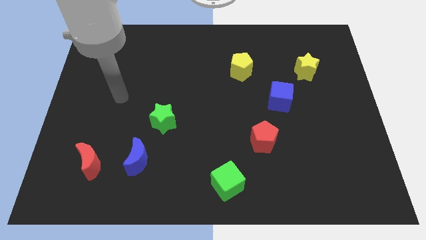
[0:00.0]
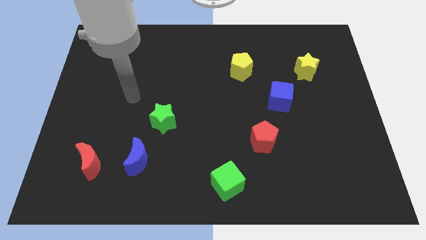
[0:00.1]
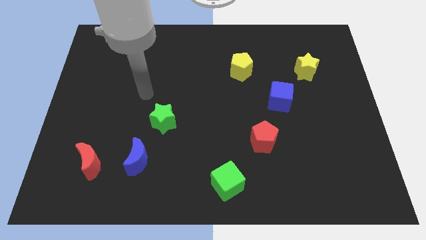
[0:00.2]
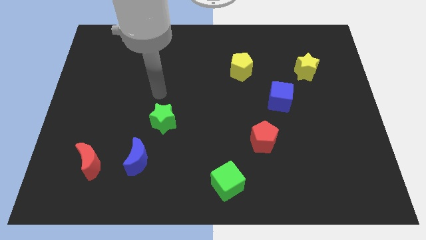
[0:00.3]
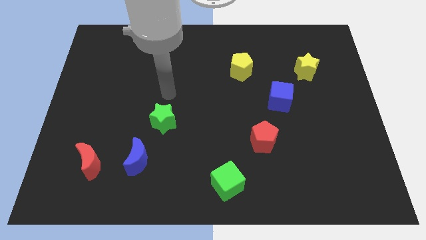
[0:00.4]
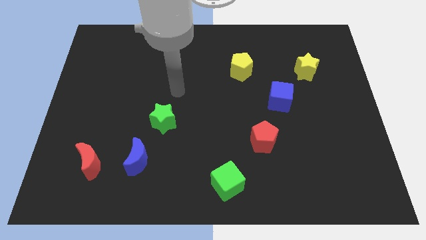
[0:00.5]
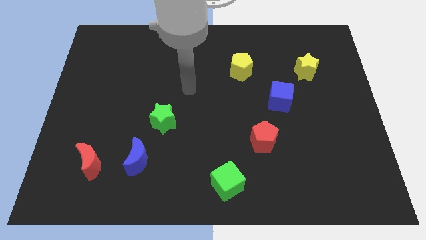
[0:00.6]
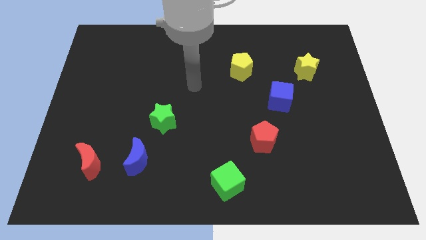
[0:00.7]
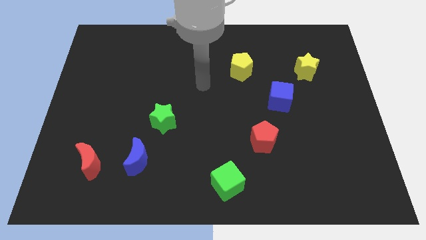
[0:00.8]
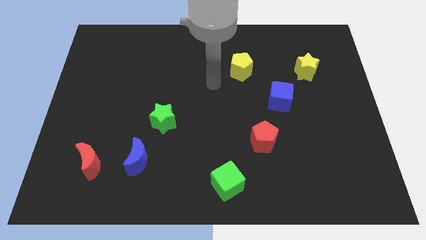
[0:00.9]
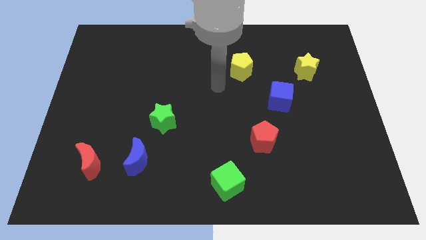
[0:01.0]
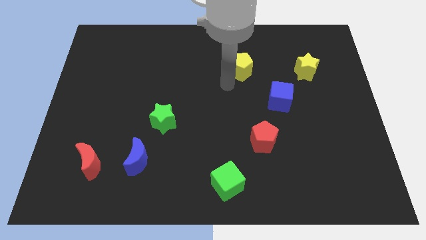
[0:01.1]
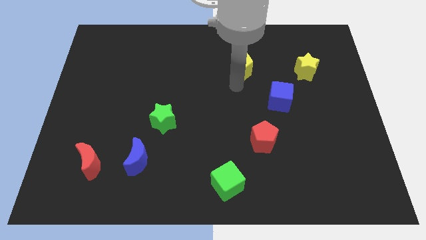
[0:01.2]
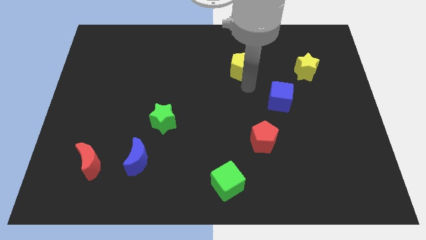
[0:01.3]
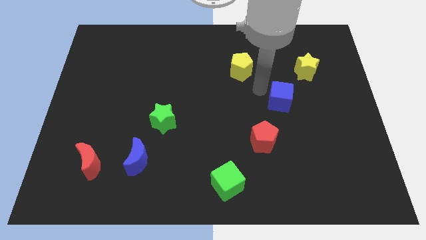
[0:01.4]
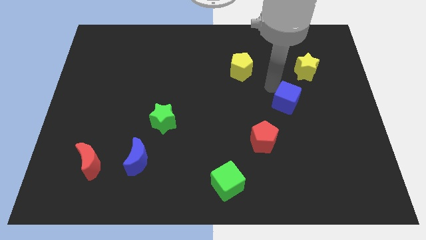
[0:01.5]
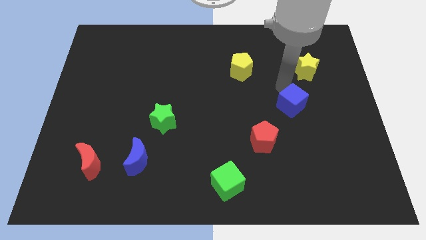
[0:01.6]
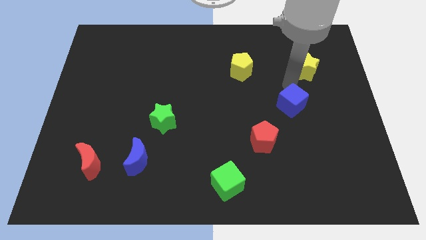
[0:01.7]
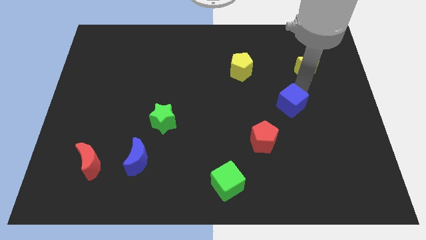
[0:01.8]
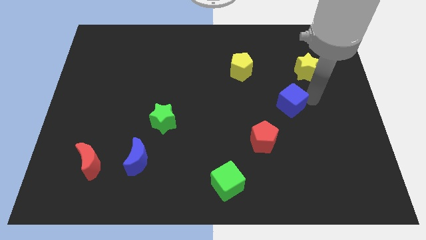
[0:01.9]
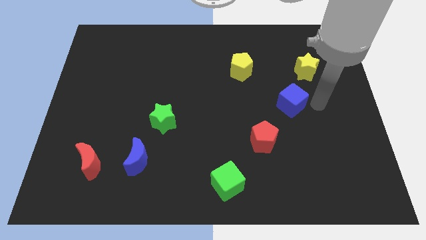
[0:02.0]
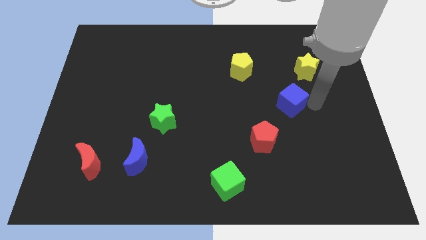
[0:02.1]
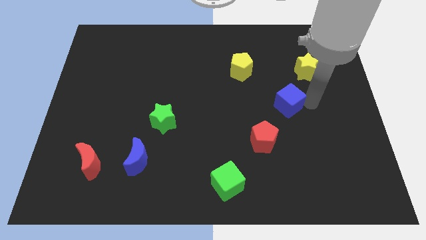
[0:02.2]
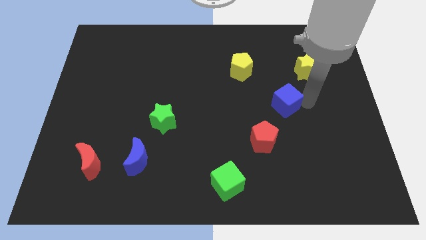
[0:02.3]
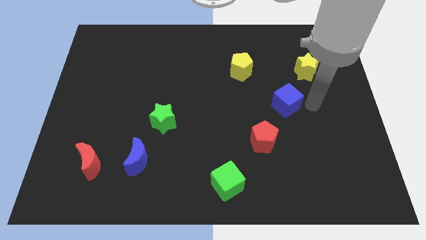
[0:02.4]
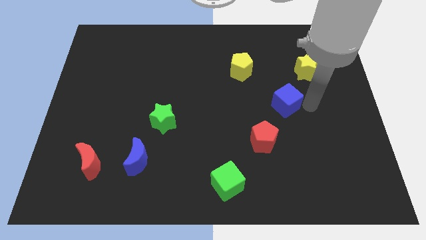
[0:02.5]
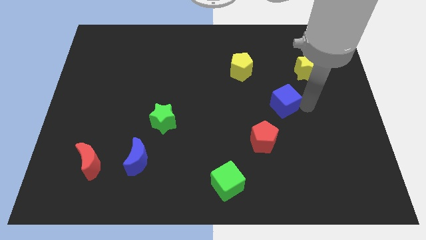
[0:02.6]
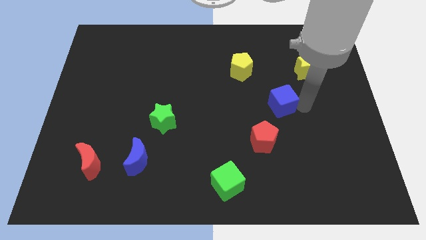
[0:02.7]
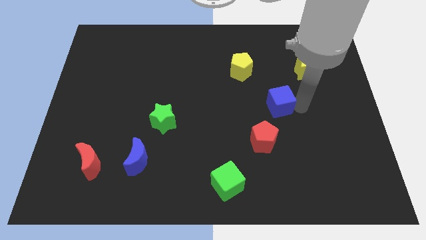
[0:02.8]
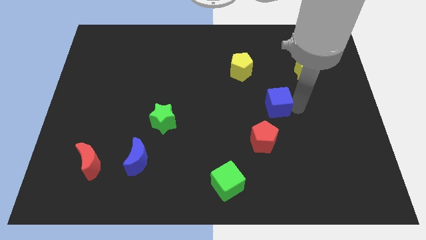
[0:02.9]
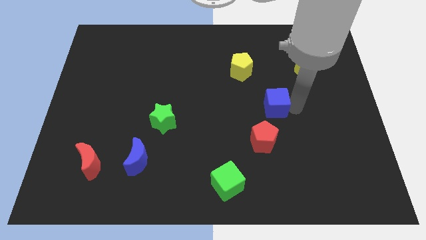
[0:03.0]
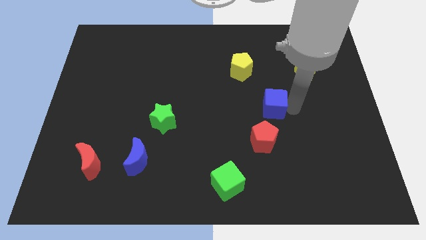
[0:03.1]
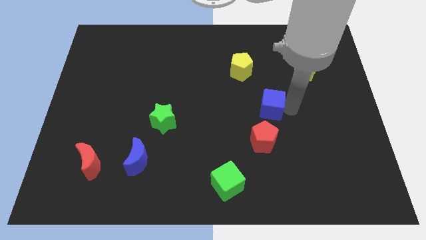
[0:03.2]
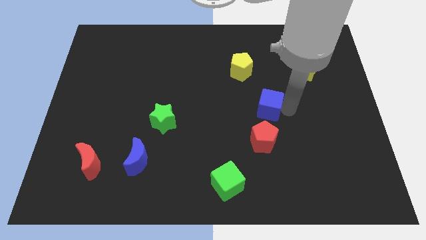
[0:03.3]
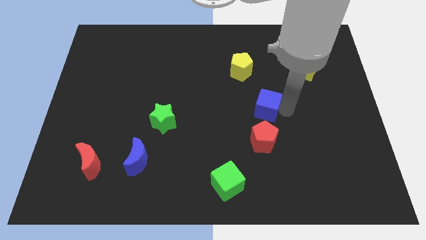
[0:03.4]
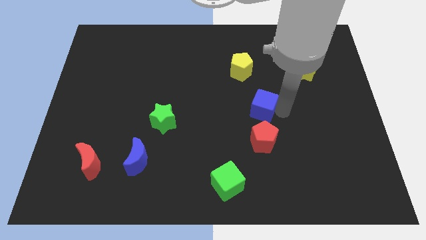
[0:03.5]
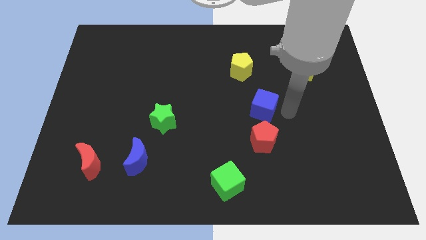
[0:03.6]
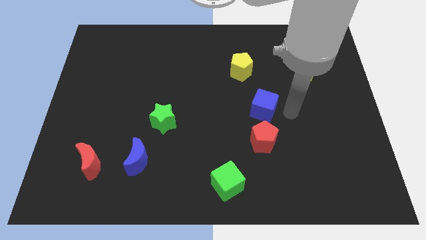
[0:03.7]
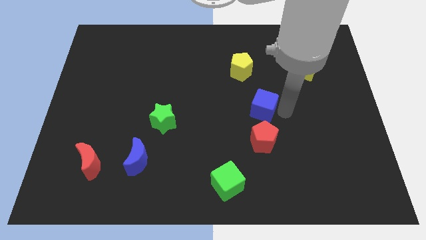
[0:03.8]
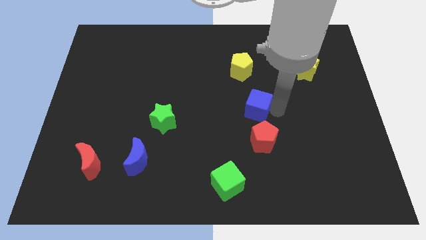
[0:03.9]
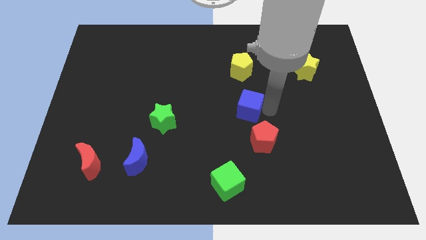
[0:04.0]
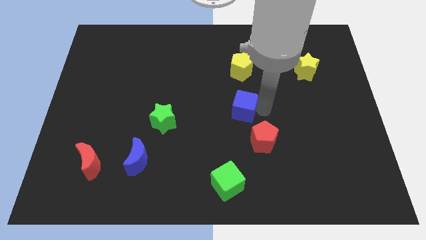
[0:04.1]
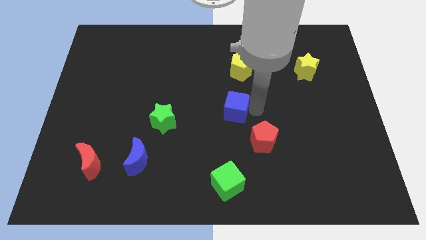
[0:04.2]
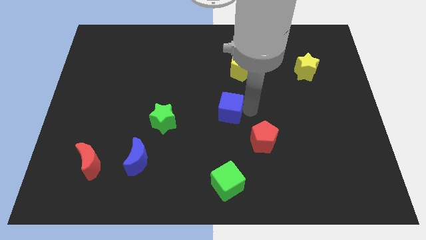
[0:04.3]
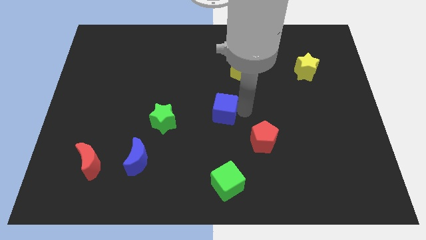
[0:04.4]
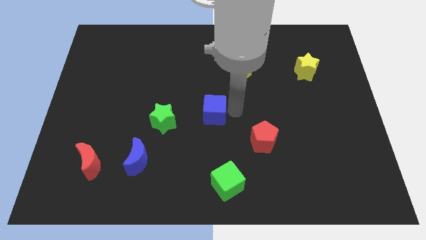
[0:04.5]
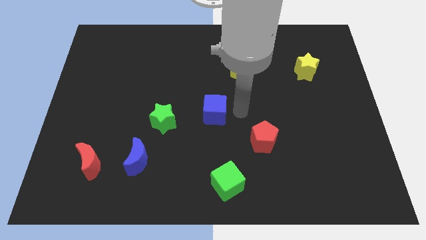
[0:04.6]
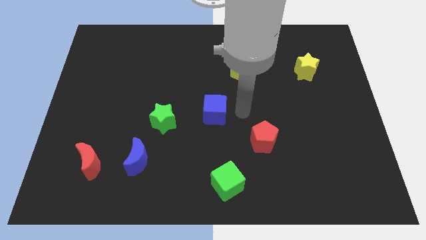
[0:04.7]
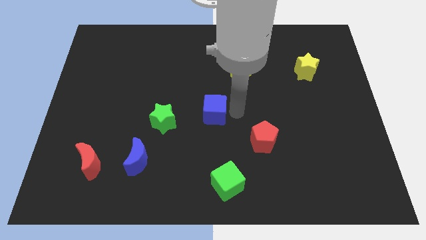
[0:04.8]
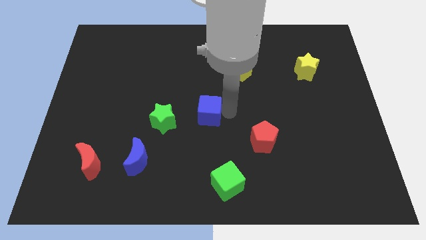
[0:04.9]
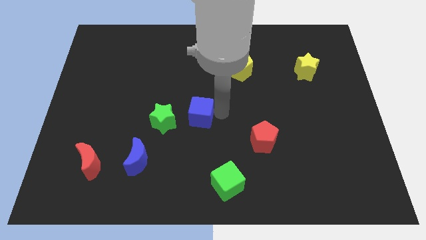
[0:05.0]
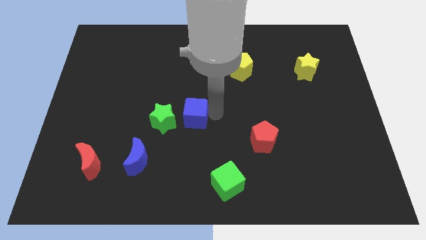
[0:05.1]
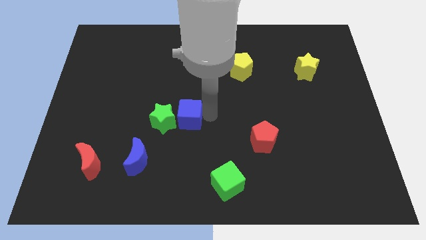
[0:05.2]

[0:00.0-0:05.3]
push the blue cube close to the green star

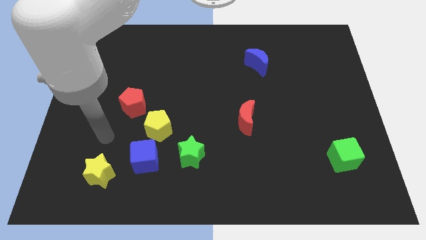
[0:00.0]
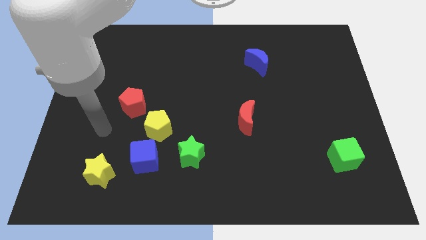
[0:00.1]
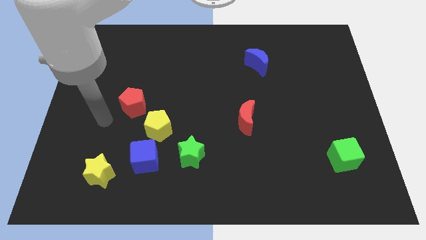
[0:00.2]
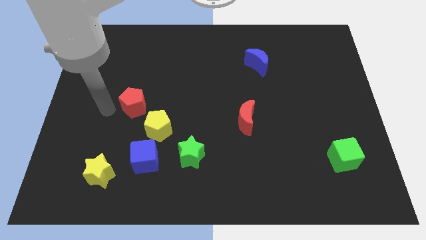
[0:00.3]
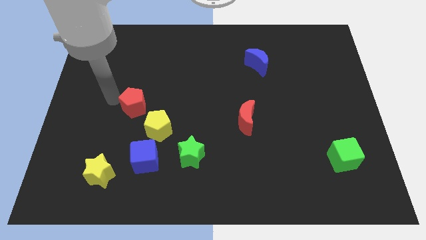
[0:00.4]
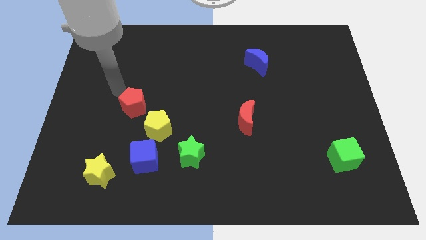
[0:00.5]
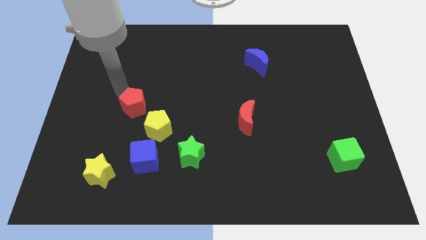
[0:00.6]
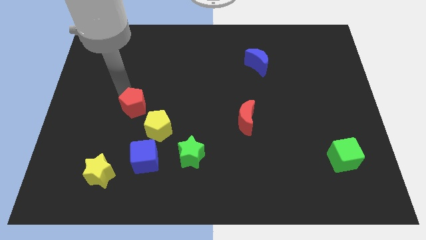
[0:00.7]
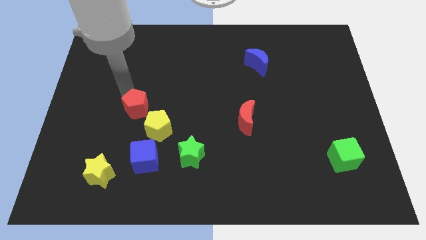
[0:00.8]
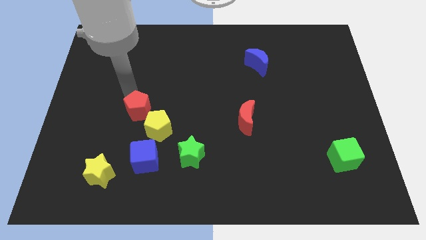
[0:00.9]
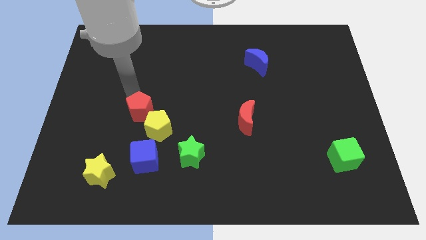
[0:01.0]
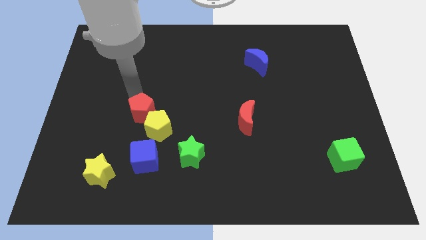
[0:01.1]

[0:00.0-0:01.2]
put the red pentagon close to the yellow pentagon
